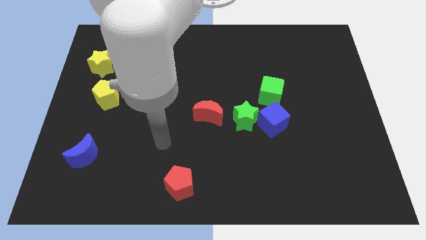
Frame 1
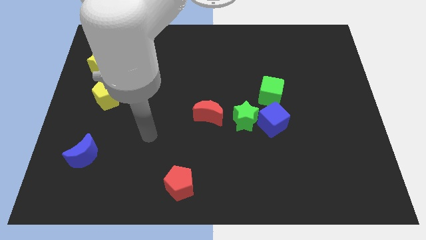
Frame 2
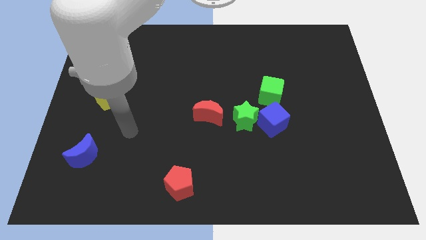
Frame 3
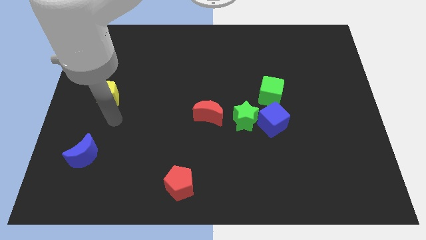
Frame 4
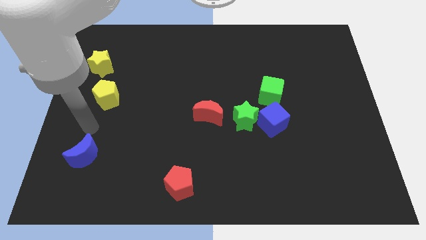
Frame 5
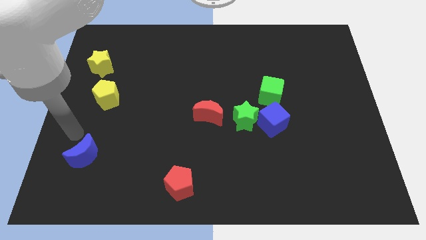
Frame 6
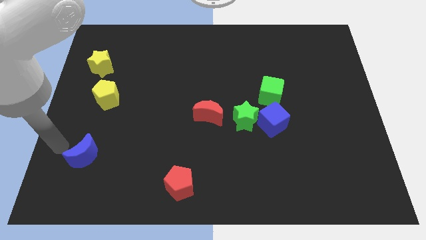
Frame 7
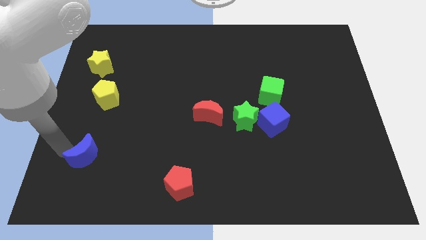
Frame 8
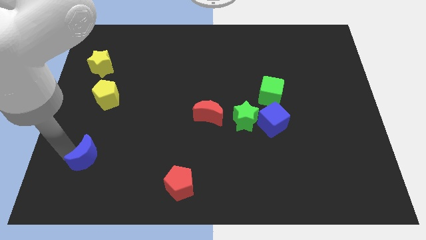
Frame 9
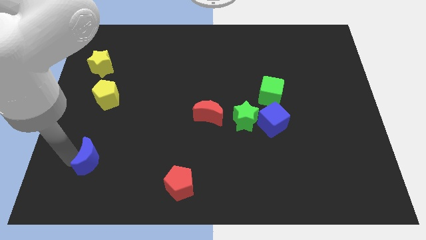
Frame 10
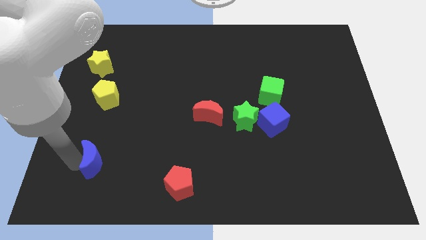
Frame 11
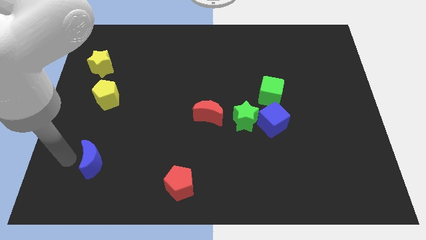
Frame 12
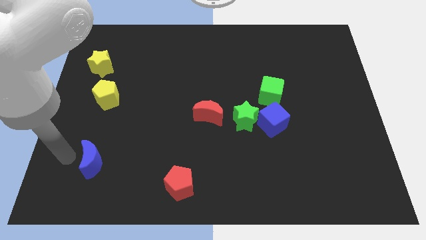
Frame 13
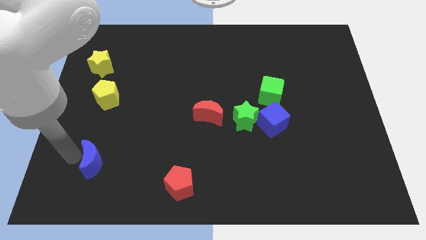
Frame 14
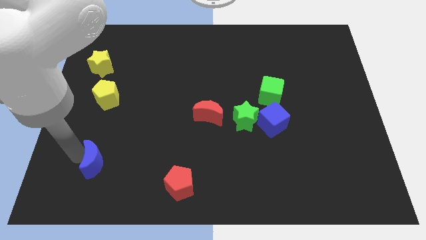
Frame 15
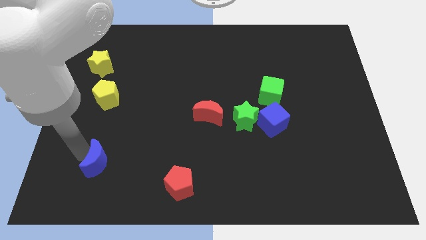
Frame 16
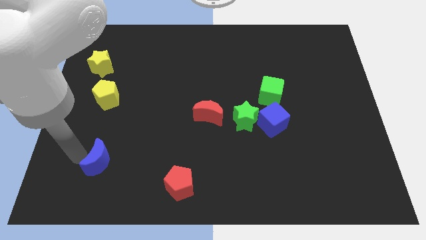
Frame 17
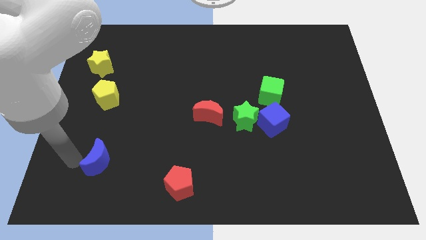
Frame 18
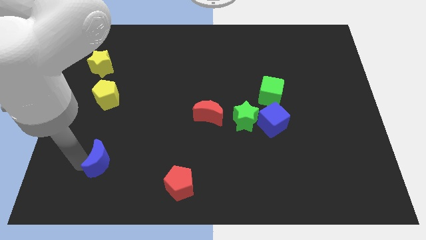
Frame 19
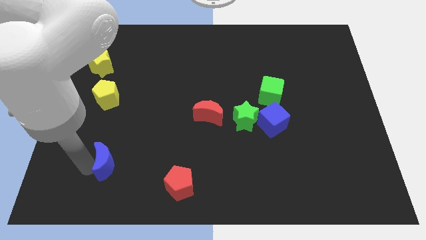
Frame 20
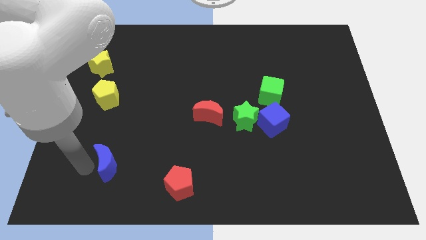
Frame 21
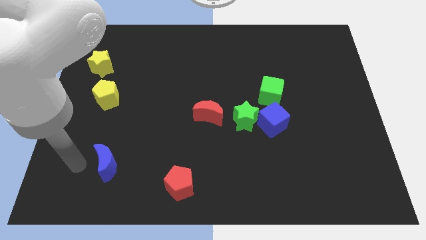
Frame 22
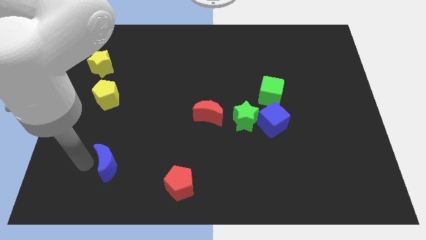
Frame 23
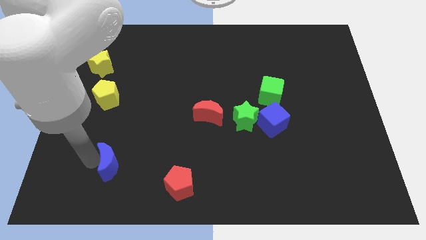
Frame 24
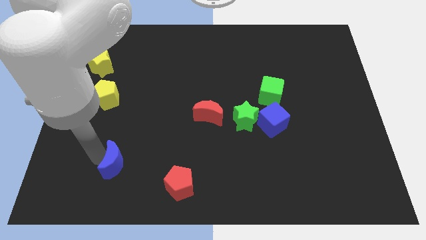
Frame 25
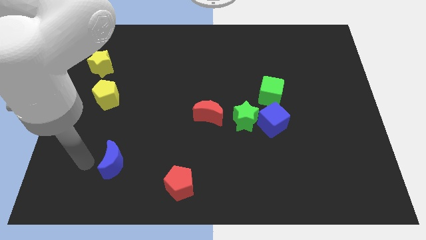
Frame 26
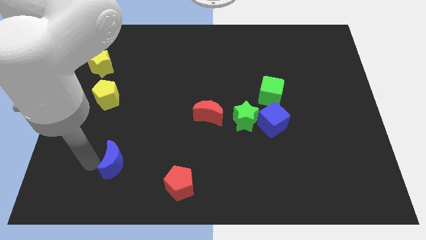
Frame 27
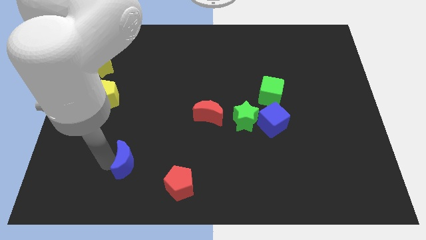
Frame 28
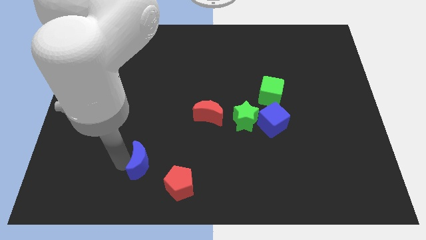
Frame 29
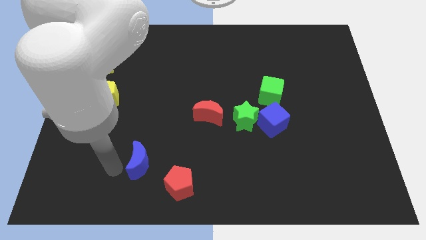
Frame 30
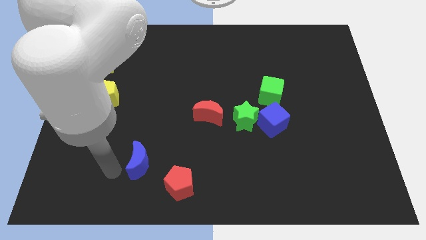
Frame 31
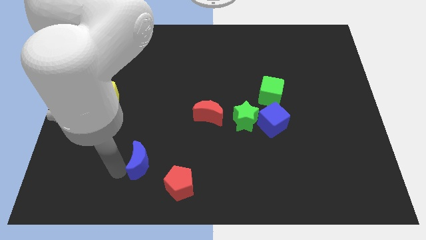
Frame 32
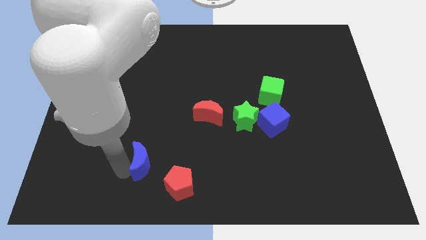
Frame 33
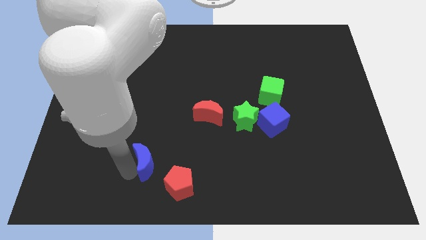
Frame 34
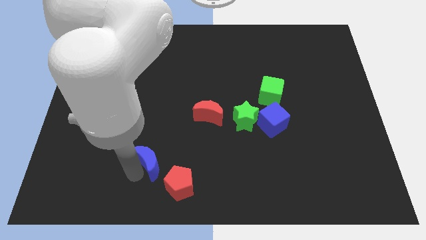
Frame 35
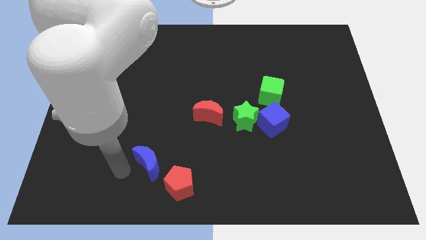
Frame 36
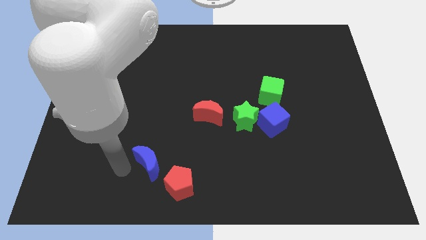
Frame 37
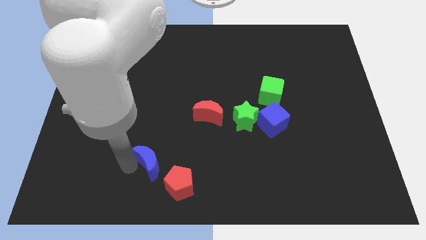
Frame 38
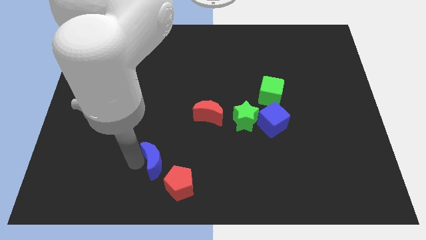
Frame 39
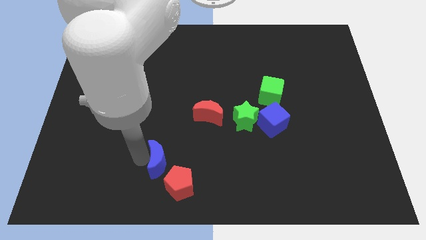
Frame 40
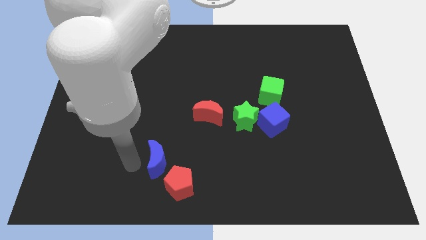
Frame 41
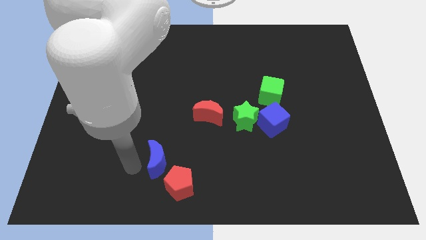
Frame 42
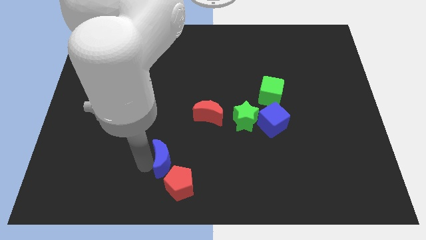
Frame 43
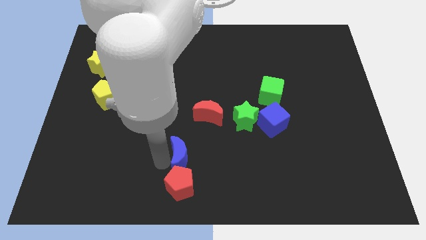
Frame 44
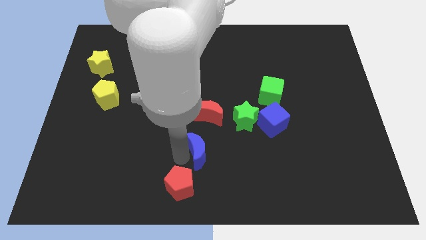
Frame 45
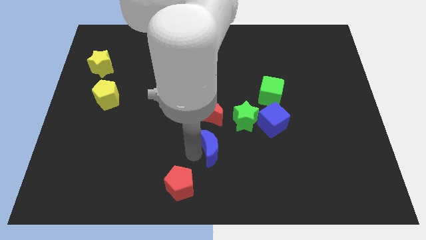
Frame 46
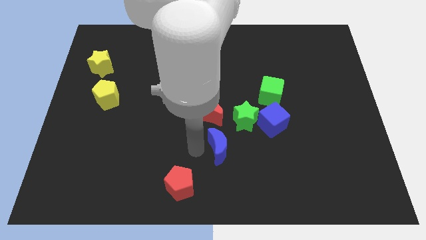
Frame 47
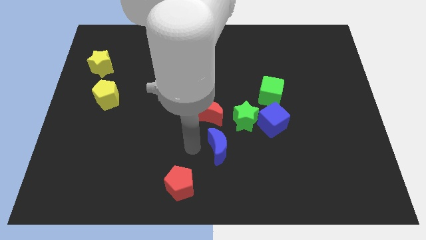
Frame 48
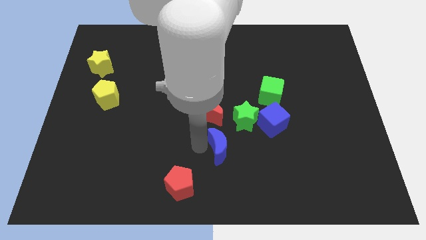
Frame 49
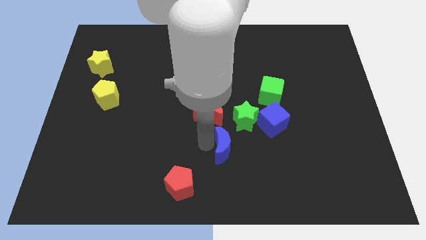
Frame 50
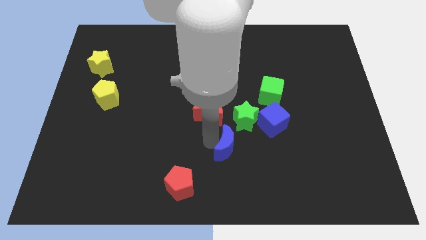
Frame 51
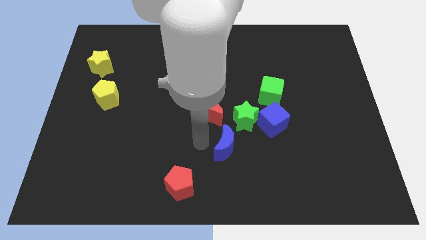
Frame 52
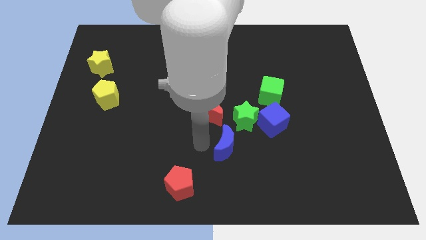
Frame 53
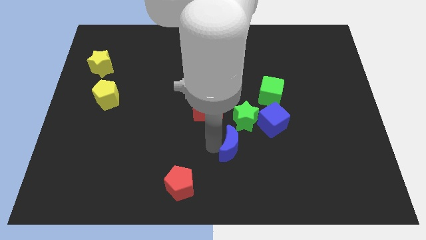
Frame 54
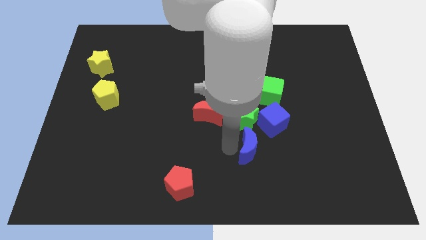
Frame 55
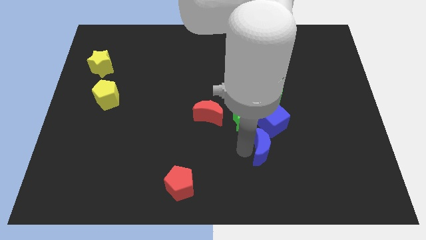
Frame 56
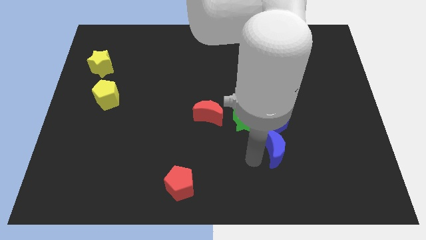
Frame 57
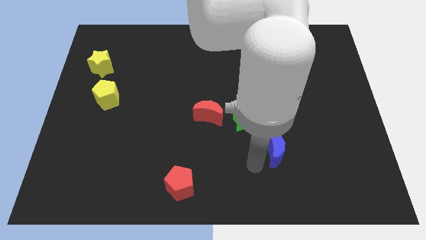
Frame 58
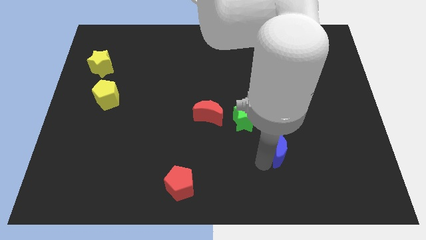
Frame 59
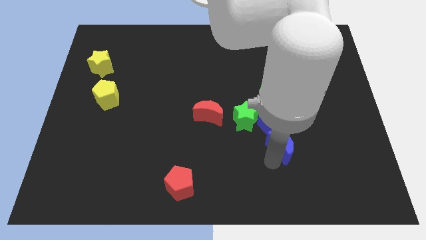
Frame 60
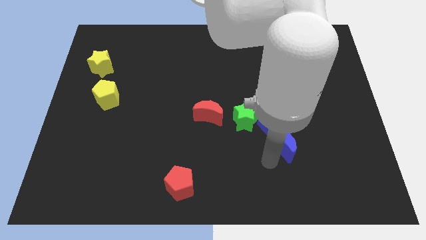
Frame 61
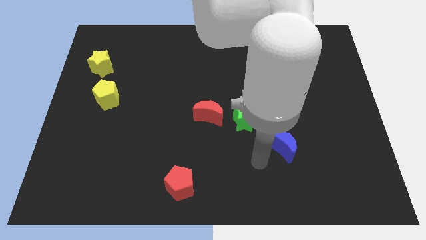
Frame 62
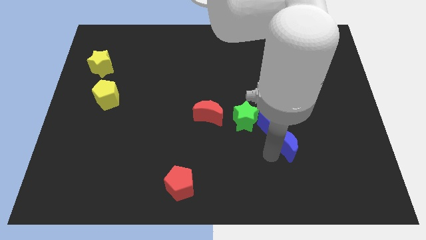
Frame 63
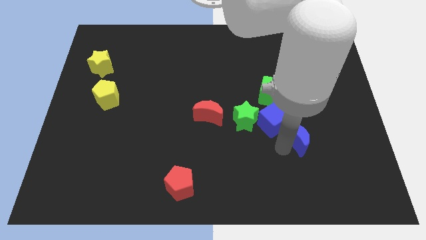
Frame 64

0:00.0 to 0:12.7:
move the blue moon to the right side of the blue cube
